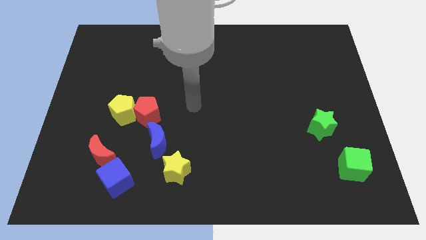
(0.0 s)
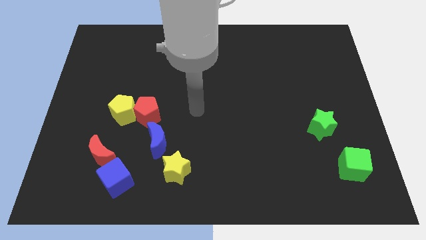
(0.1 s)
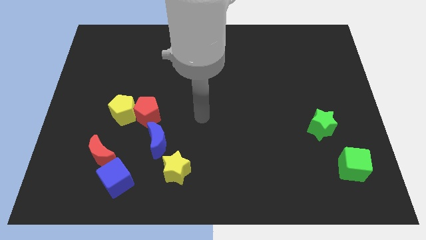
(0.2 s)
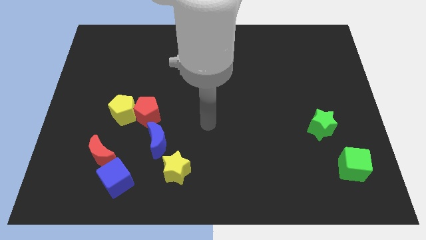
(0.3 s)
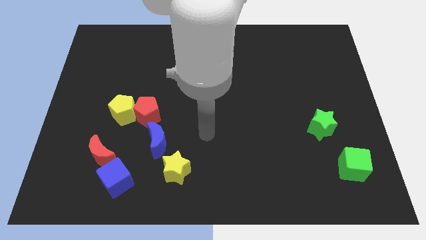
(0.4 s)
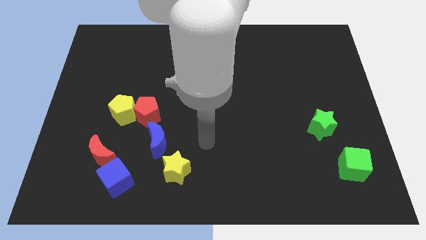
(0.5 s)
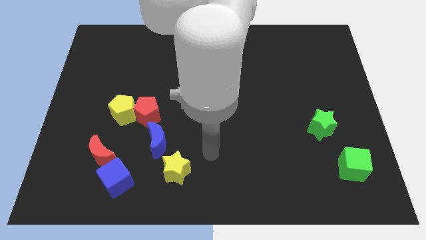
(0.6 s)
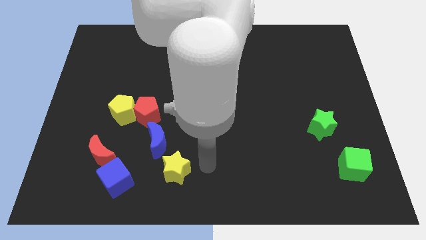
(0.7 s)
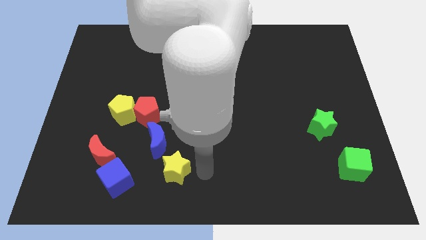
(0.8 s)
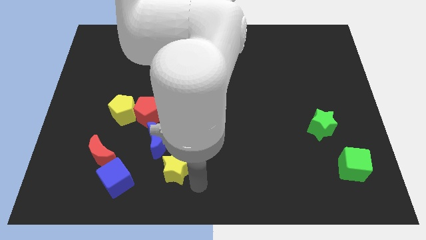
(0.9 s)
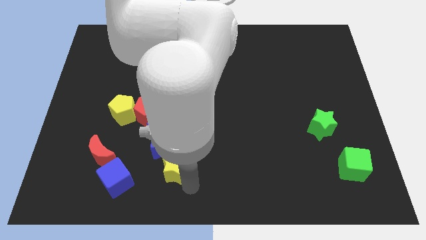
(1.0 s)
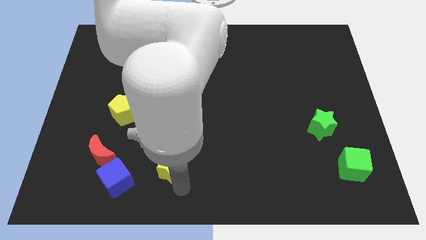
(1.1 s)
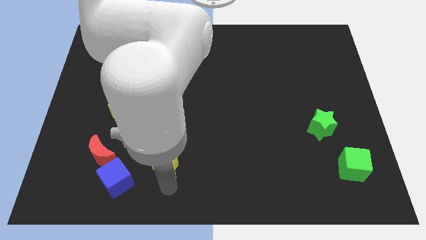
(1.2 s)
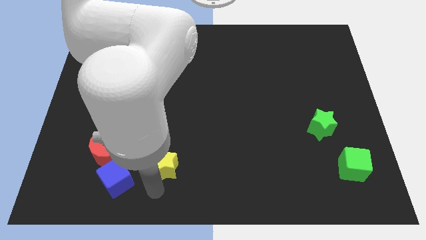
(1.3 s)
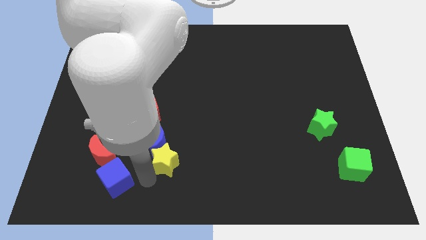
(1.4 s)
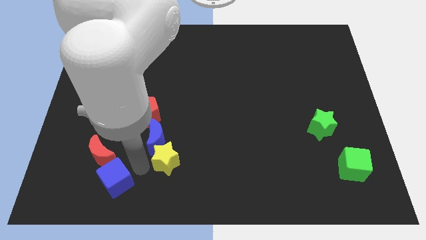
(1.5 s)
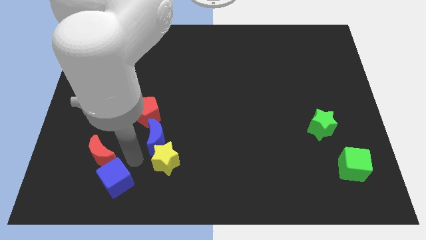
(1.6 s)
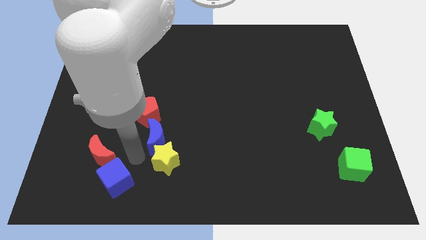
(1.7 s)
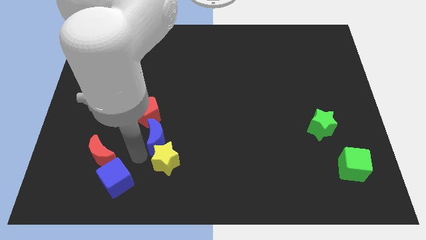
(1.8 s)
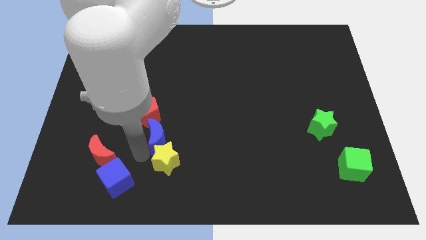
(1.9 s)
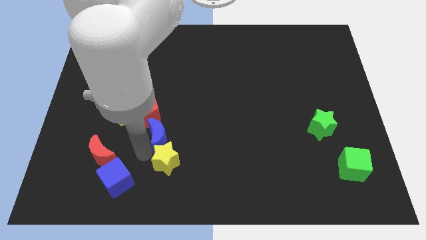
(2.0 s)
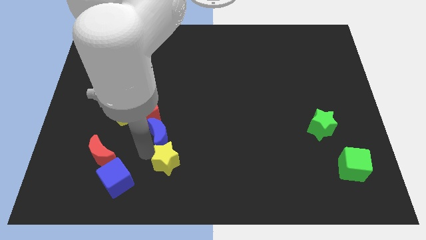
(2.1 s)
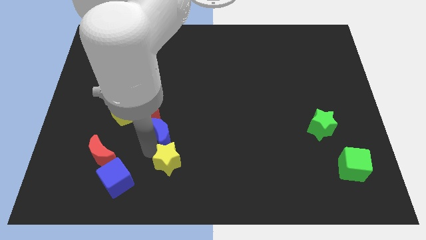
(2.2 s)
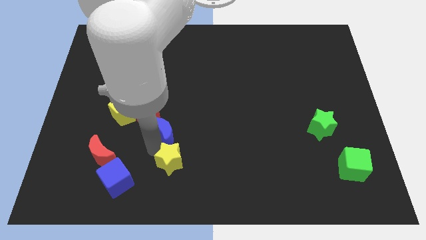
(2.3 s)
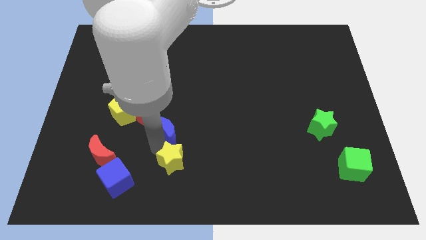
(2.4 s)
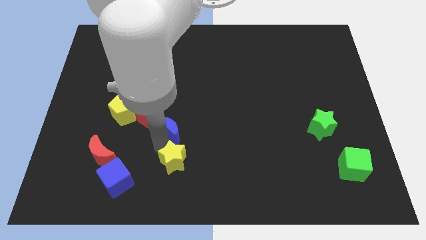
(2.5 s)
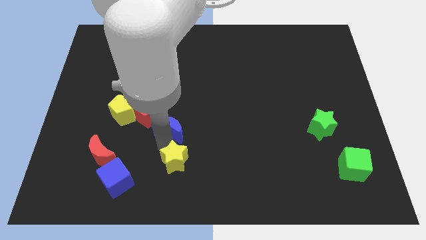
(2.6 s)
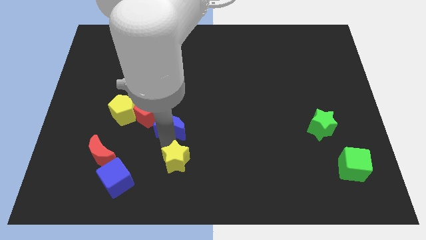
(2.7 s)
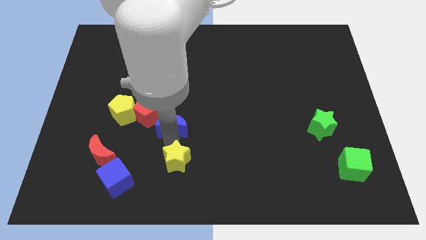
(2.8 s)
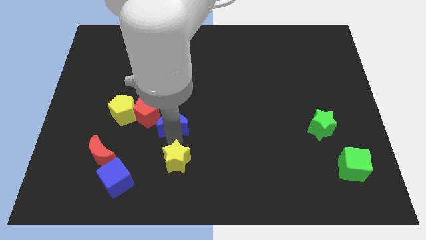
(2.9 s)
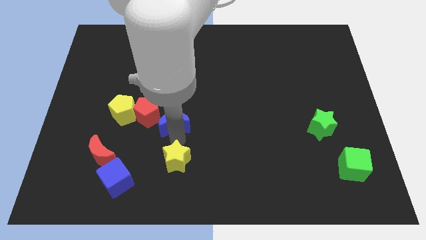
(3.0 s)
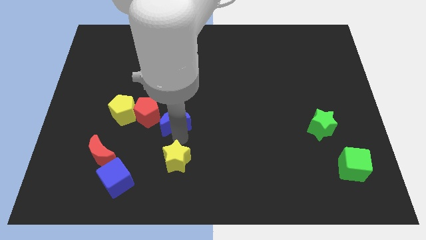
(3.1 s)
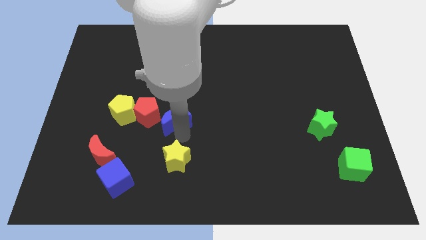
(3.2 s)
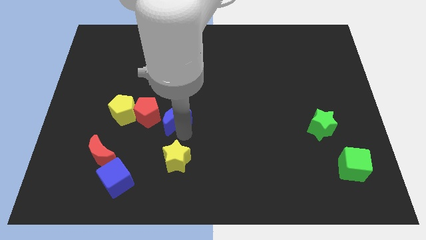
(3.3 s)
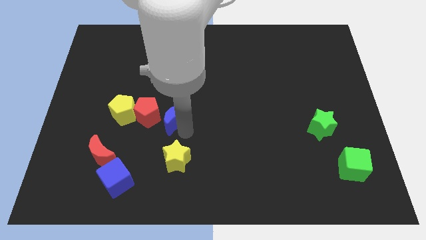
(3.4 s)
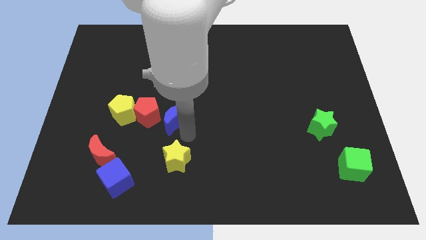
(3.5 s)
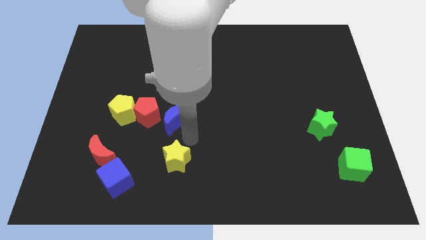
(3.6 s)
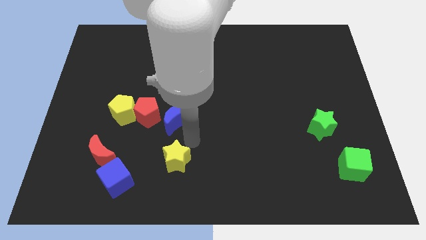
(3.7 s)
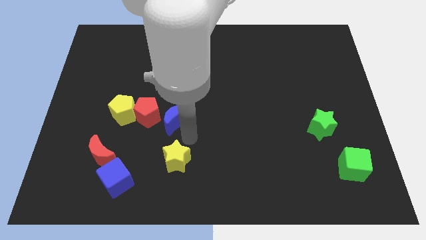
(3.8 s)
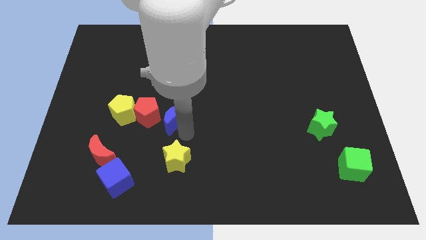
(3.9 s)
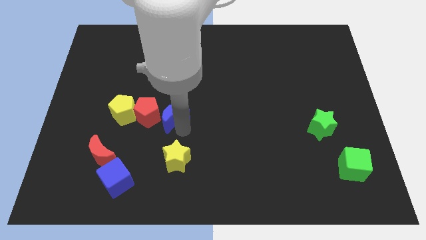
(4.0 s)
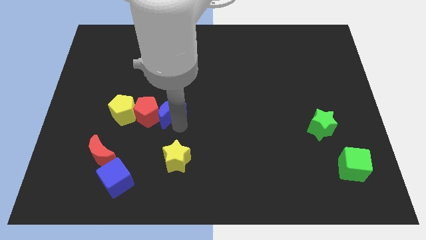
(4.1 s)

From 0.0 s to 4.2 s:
move the blue moon upwards somewhat

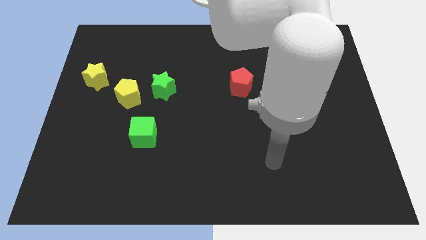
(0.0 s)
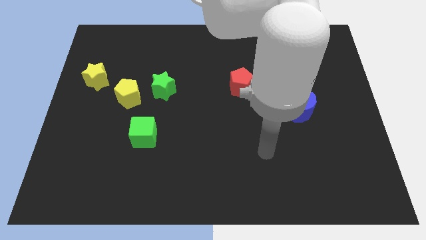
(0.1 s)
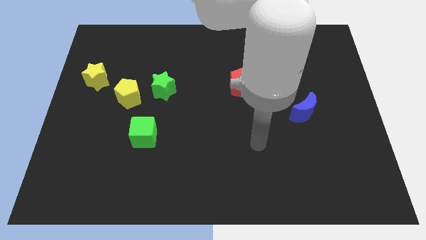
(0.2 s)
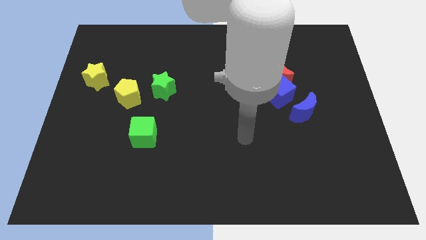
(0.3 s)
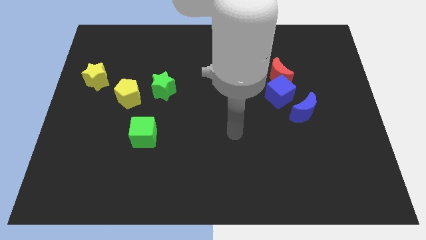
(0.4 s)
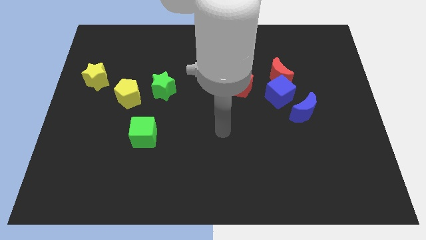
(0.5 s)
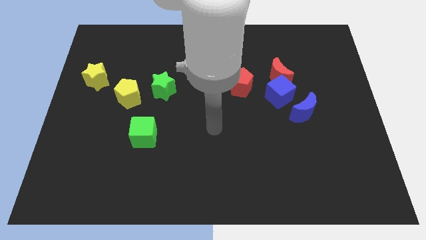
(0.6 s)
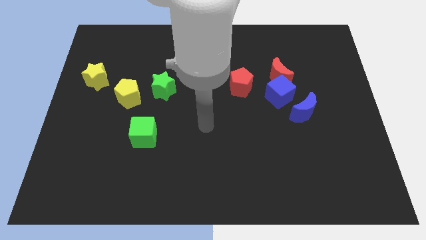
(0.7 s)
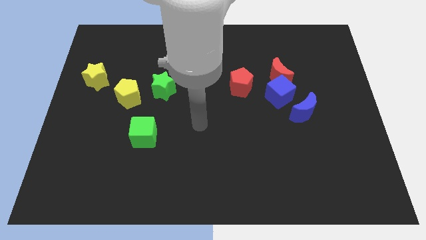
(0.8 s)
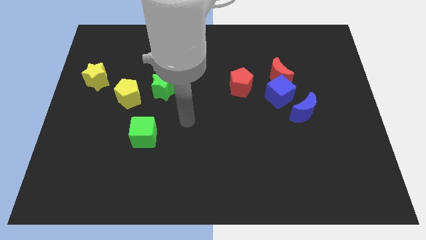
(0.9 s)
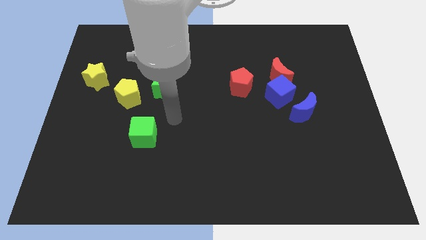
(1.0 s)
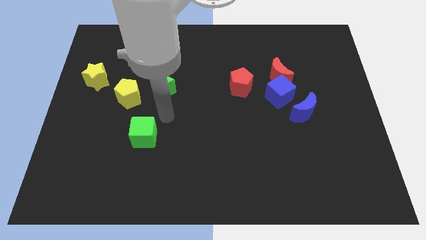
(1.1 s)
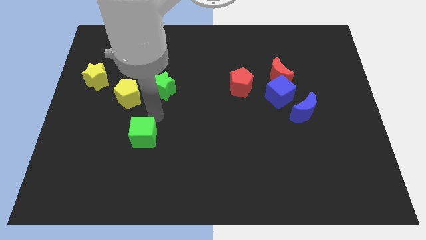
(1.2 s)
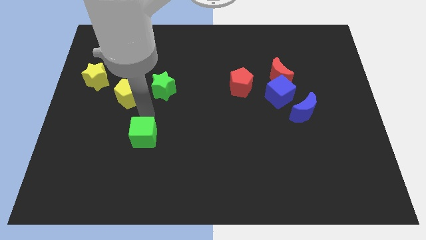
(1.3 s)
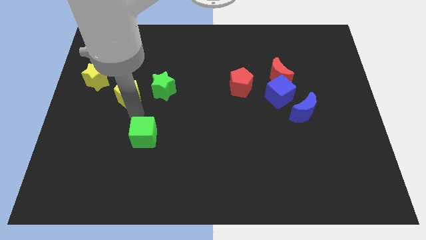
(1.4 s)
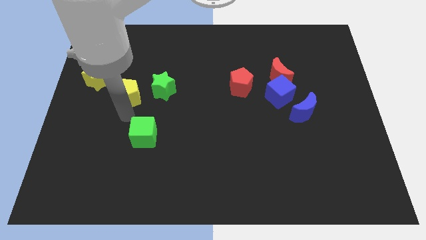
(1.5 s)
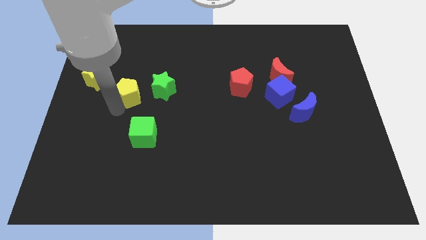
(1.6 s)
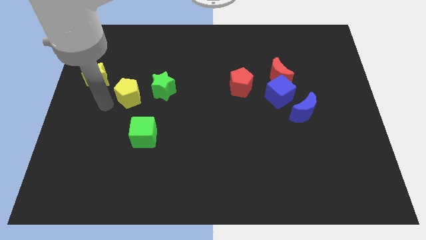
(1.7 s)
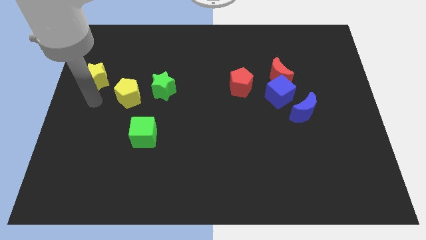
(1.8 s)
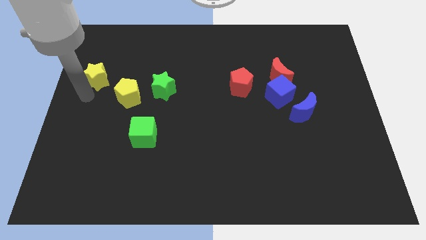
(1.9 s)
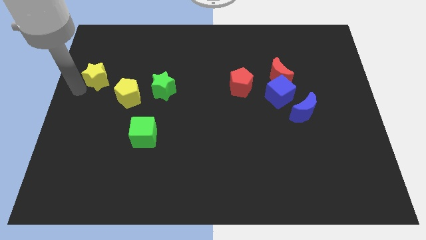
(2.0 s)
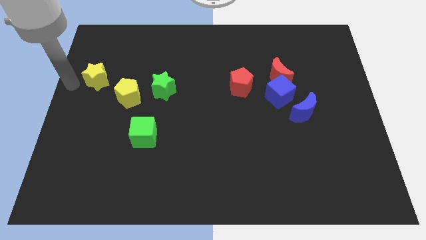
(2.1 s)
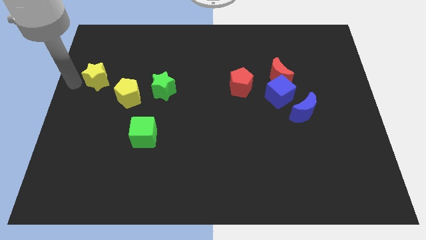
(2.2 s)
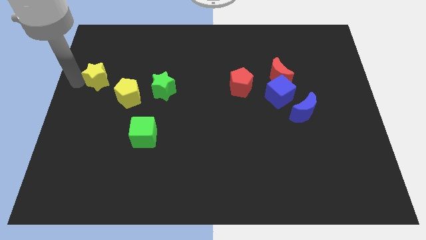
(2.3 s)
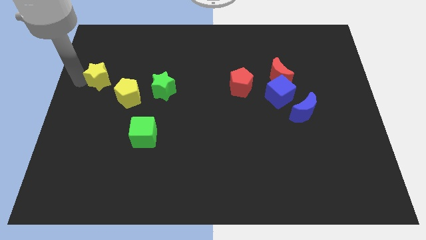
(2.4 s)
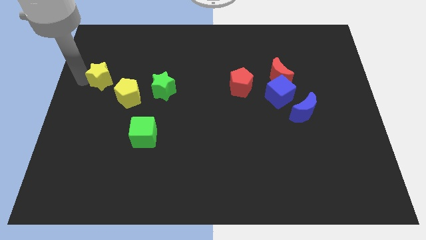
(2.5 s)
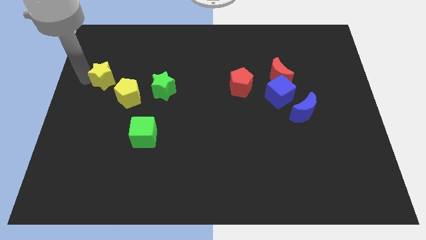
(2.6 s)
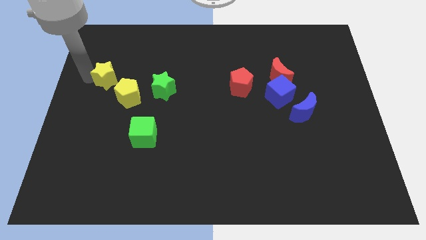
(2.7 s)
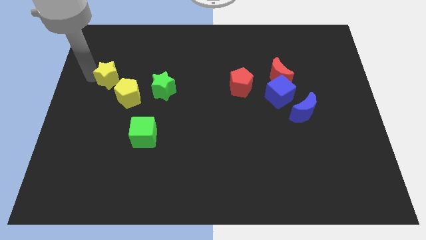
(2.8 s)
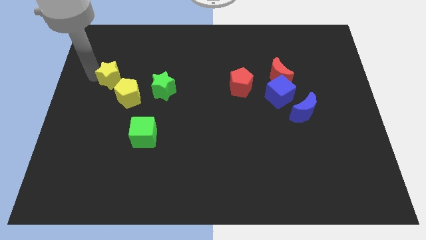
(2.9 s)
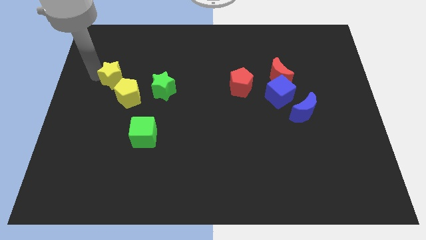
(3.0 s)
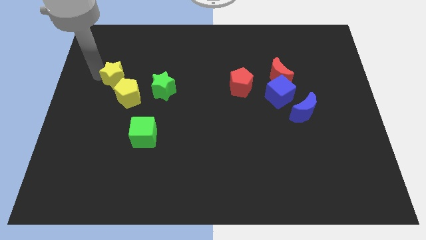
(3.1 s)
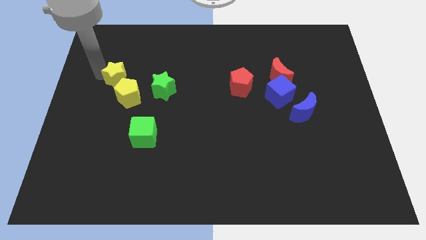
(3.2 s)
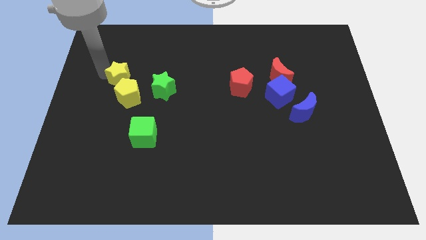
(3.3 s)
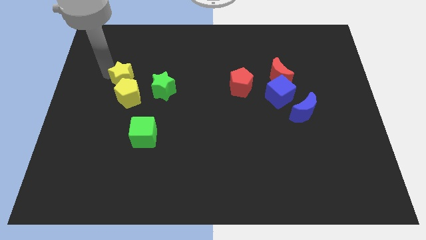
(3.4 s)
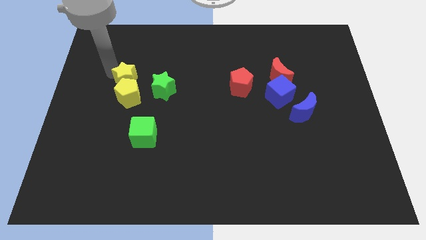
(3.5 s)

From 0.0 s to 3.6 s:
slide the yellow star a little to the right

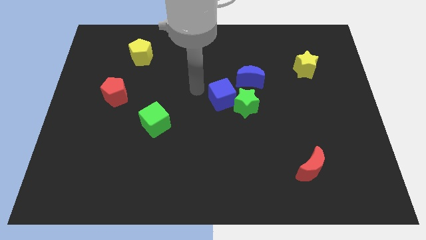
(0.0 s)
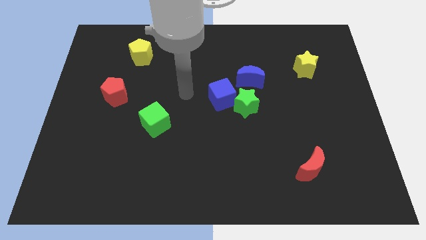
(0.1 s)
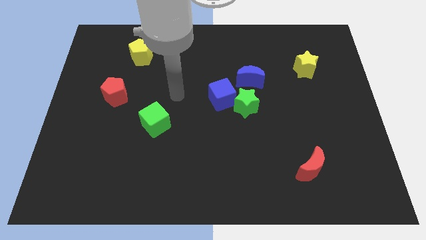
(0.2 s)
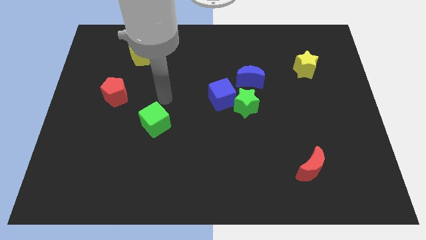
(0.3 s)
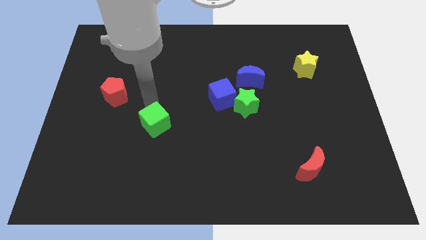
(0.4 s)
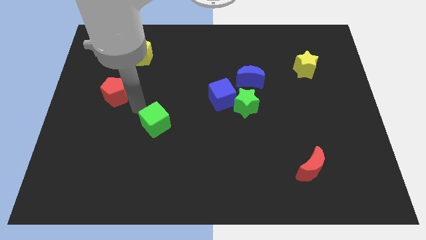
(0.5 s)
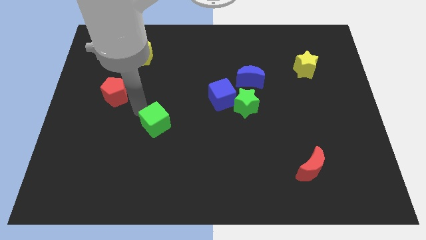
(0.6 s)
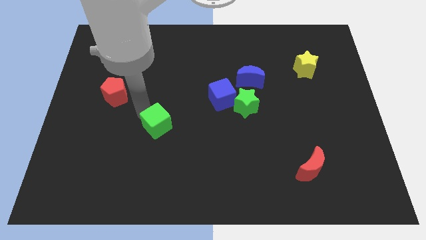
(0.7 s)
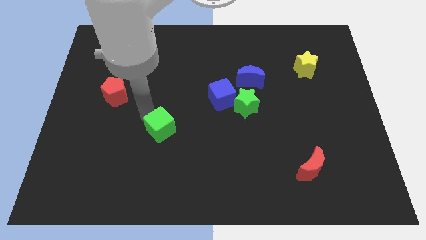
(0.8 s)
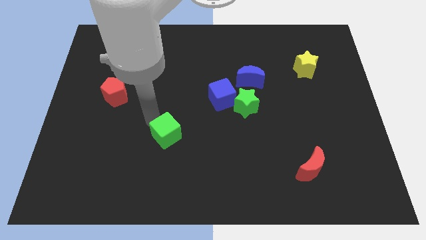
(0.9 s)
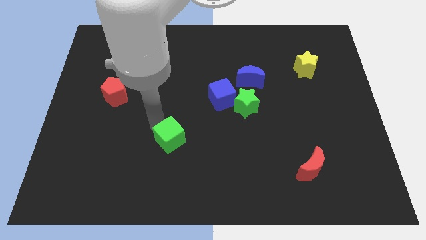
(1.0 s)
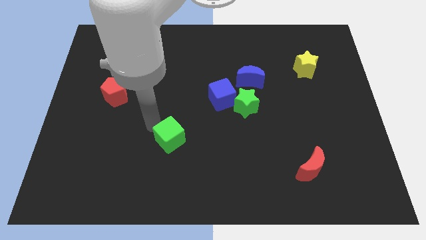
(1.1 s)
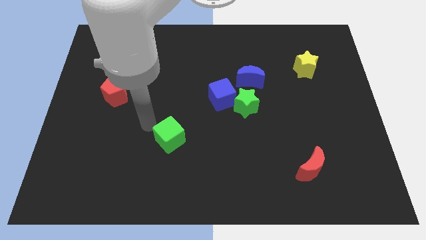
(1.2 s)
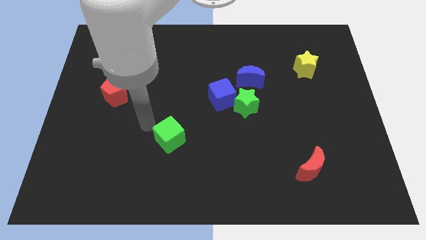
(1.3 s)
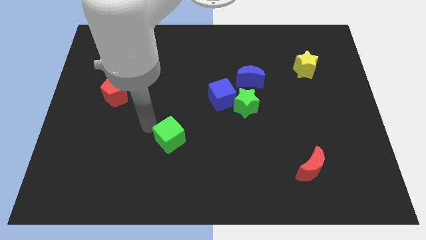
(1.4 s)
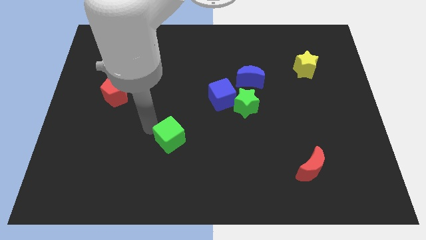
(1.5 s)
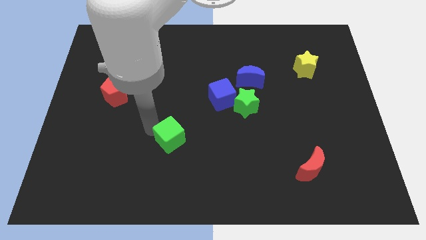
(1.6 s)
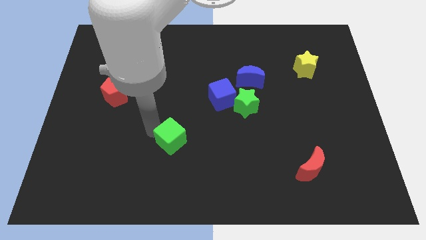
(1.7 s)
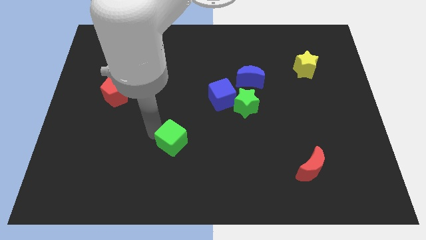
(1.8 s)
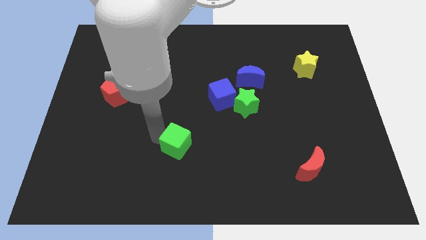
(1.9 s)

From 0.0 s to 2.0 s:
slide the green cube slightly downwards and right diagonally
